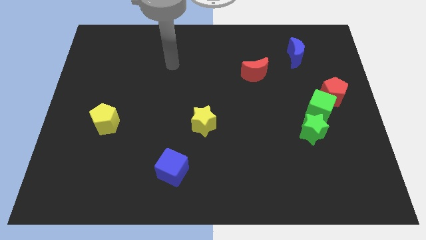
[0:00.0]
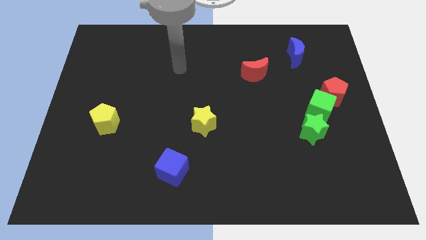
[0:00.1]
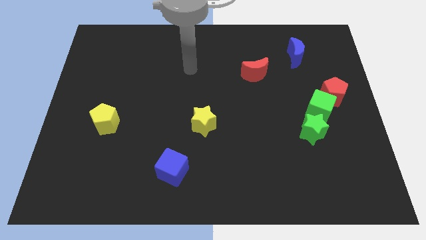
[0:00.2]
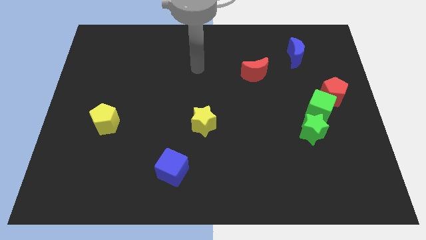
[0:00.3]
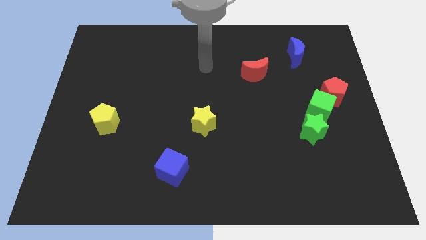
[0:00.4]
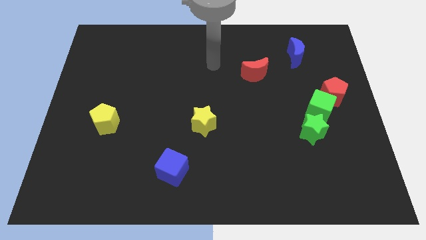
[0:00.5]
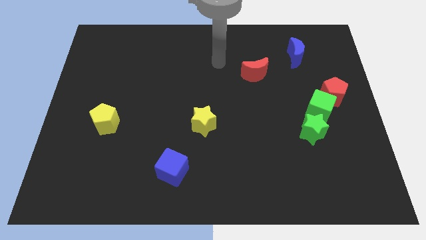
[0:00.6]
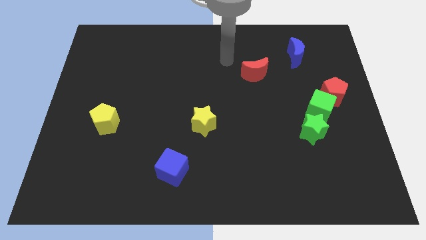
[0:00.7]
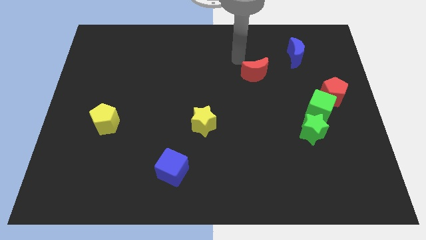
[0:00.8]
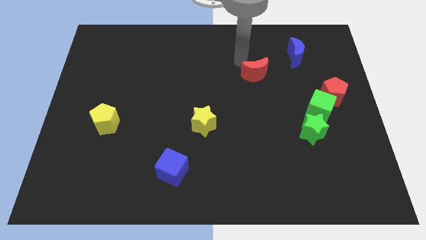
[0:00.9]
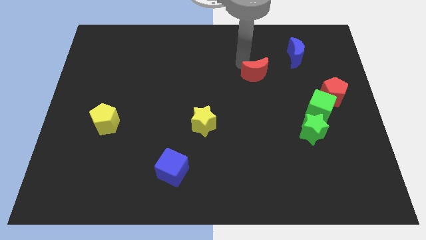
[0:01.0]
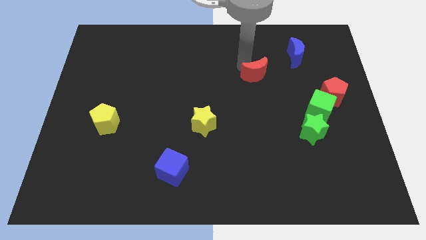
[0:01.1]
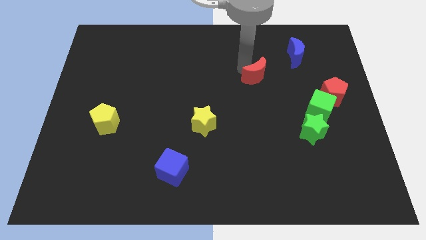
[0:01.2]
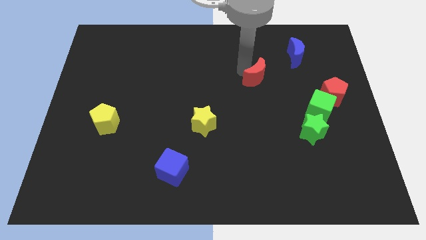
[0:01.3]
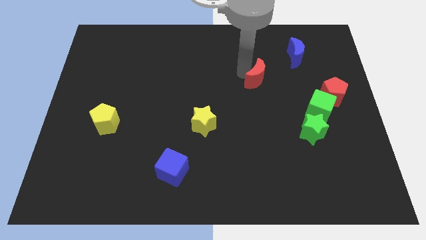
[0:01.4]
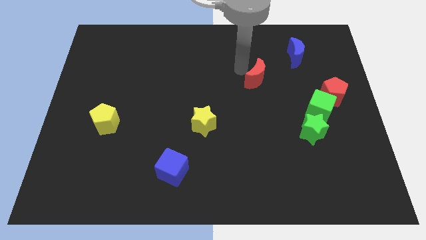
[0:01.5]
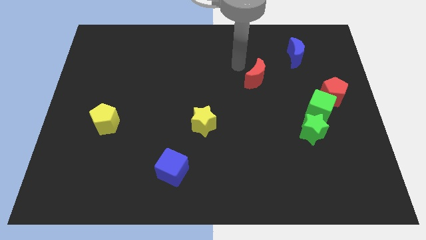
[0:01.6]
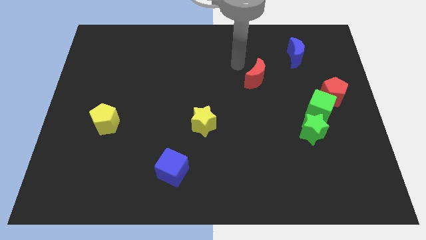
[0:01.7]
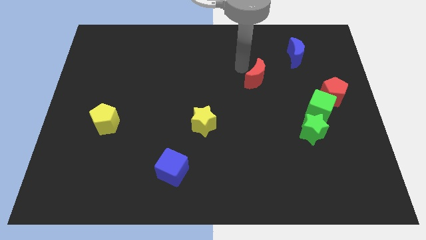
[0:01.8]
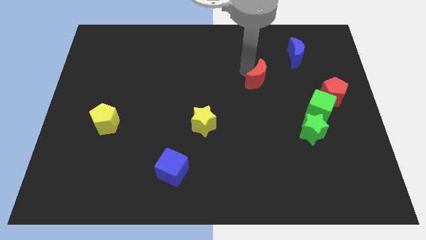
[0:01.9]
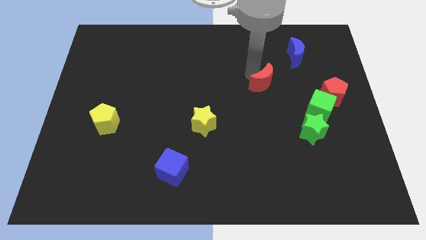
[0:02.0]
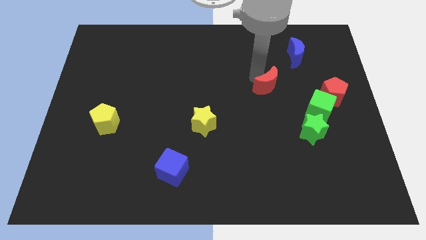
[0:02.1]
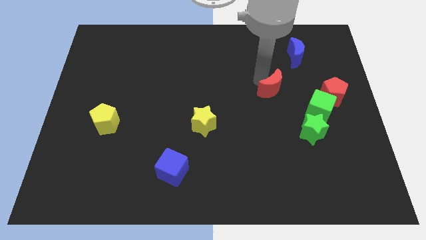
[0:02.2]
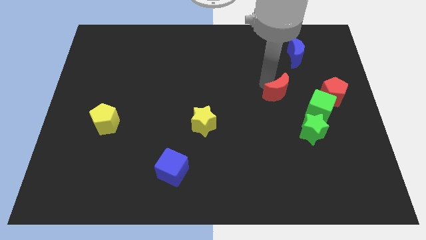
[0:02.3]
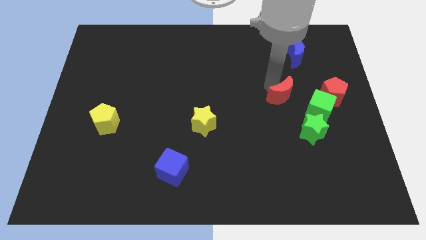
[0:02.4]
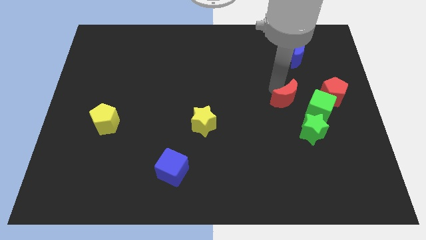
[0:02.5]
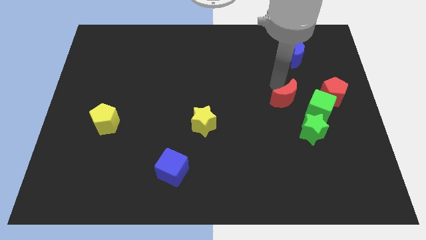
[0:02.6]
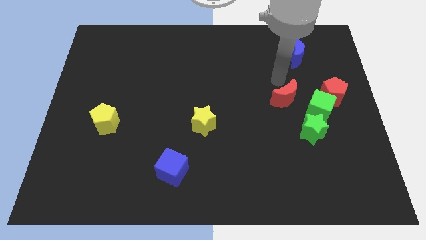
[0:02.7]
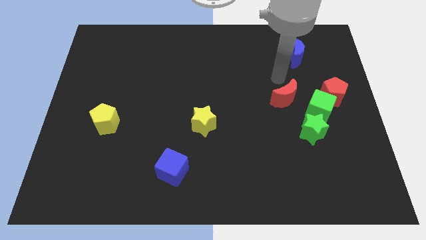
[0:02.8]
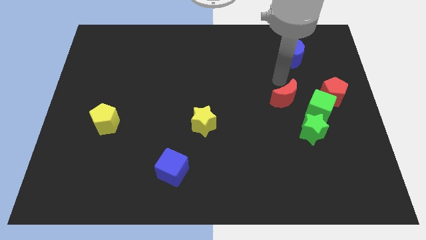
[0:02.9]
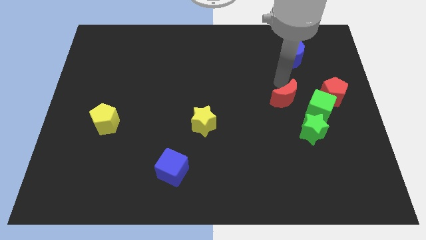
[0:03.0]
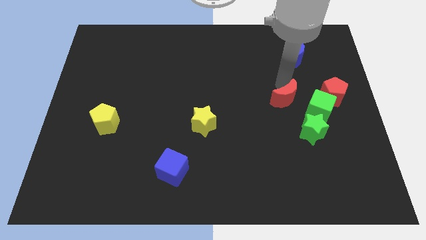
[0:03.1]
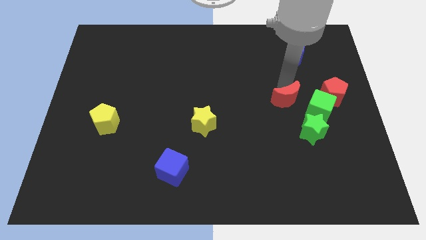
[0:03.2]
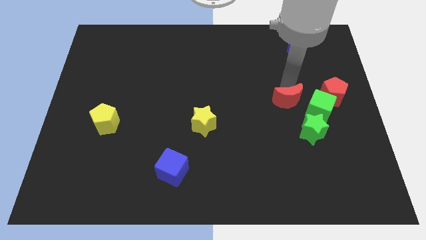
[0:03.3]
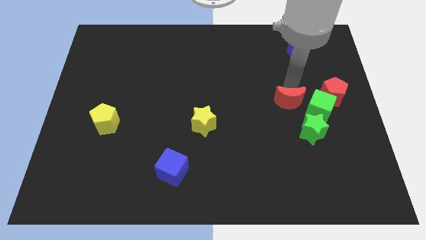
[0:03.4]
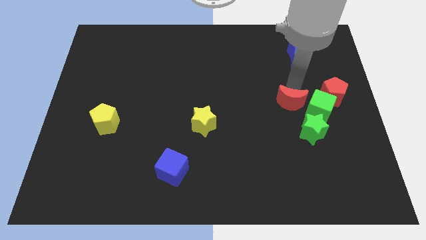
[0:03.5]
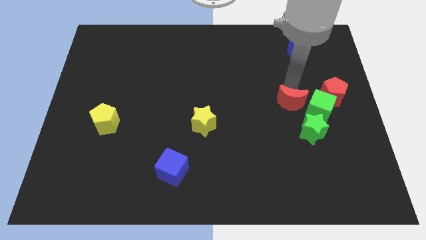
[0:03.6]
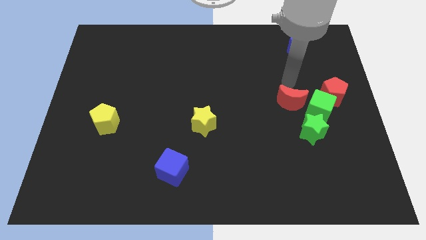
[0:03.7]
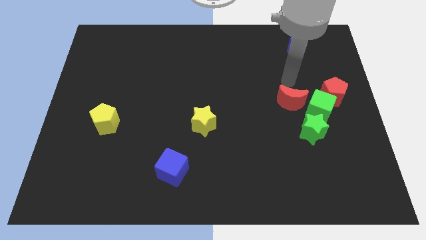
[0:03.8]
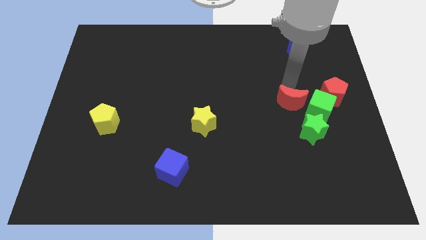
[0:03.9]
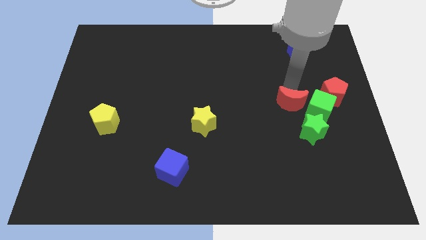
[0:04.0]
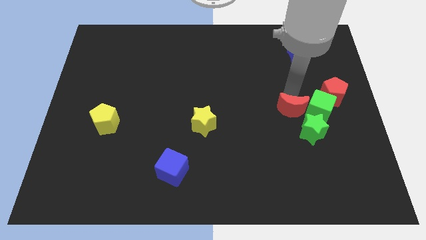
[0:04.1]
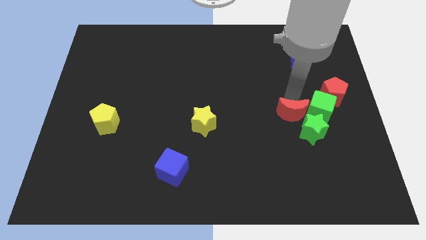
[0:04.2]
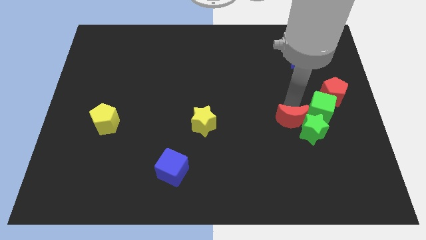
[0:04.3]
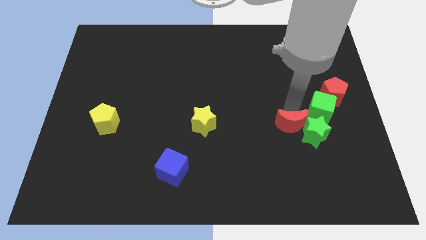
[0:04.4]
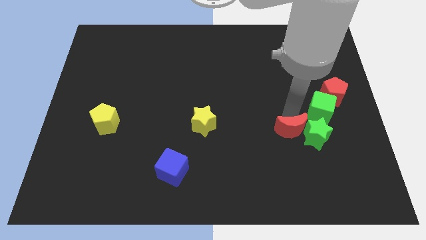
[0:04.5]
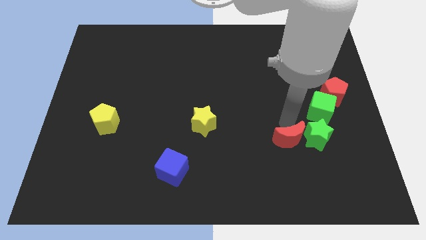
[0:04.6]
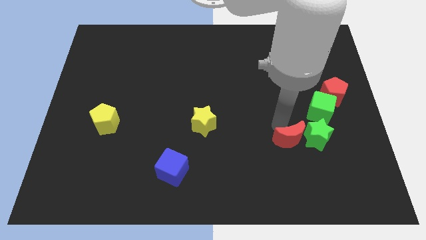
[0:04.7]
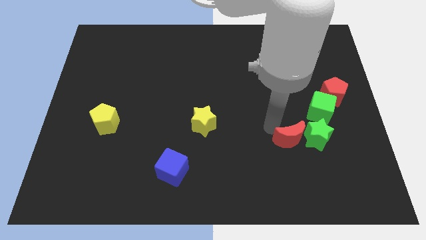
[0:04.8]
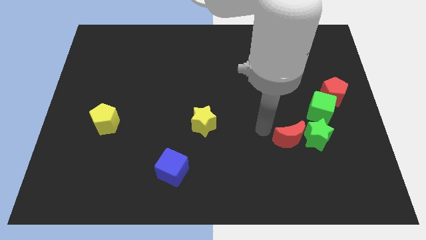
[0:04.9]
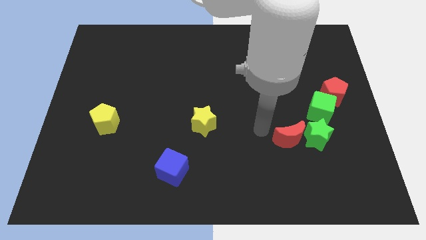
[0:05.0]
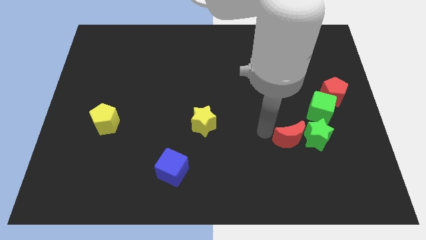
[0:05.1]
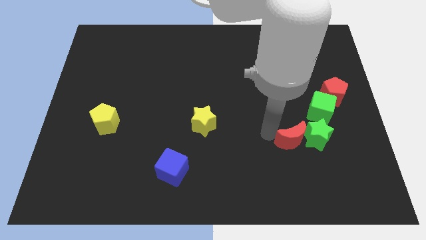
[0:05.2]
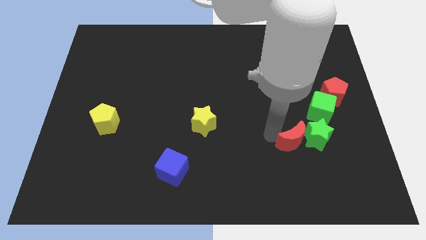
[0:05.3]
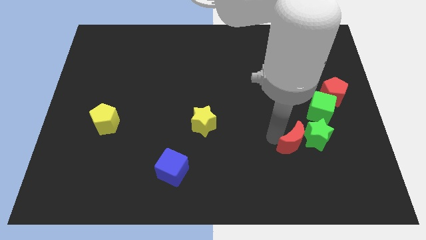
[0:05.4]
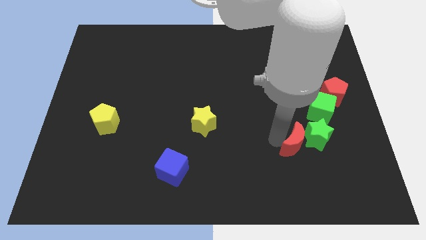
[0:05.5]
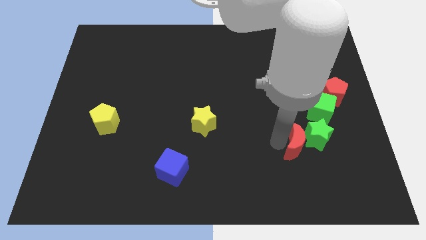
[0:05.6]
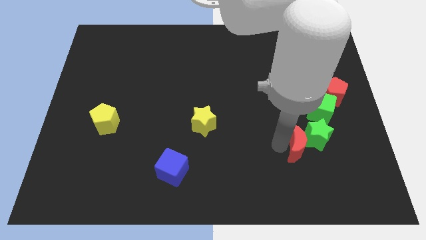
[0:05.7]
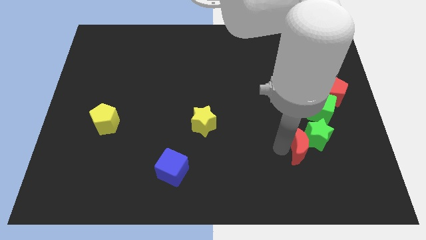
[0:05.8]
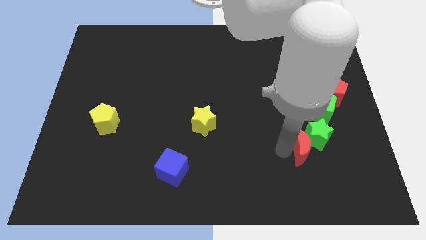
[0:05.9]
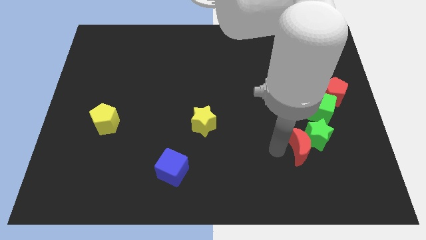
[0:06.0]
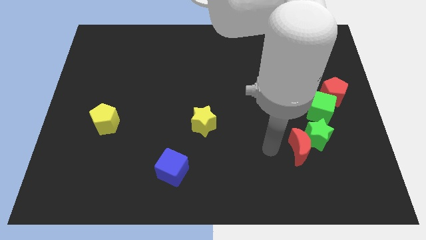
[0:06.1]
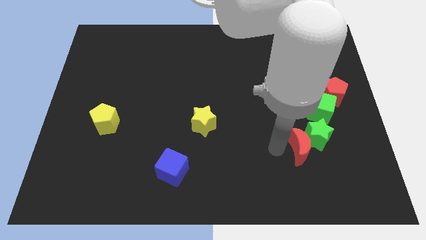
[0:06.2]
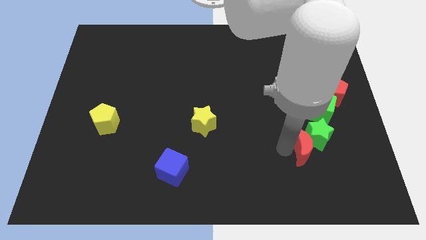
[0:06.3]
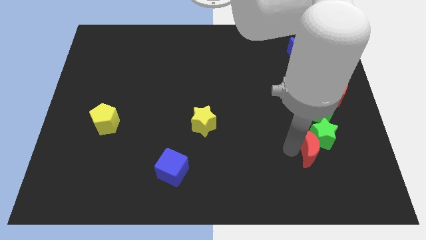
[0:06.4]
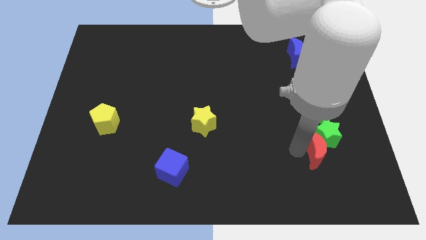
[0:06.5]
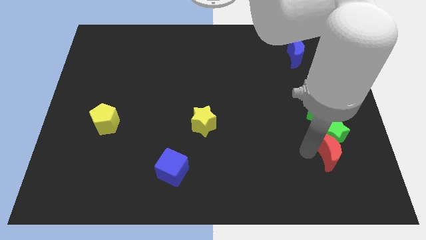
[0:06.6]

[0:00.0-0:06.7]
slide the red moon to the bottom right side of the green star

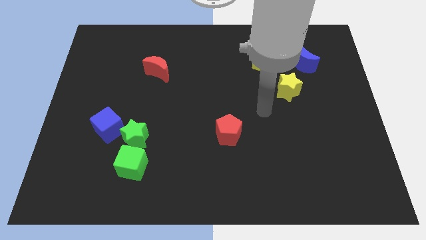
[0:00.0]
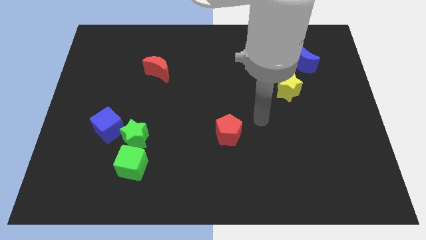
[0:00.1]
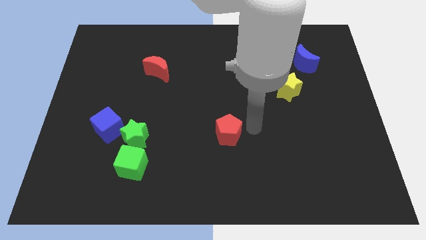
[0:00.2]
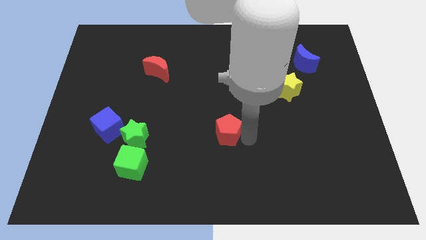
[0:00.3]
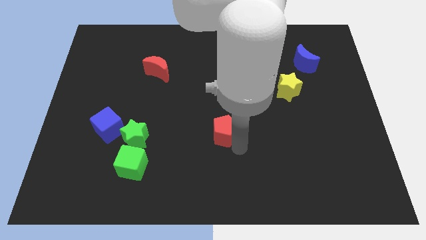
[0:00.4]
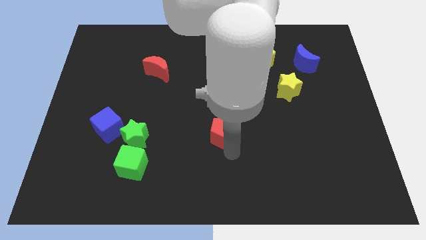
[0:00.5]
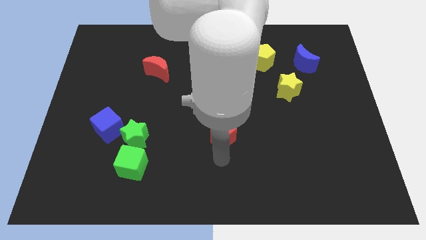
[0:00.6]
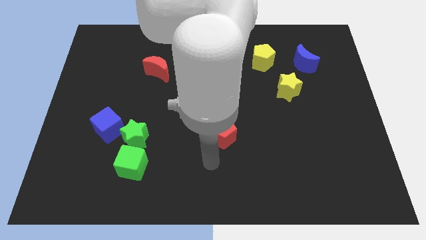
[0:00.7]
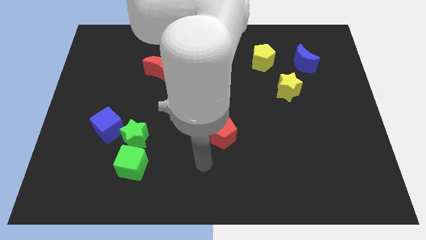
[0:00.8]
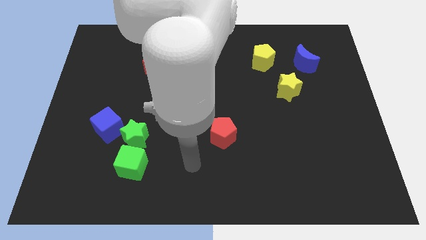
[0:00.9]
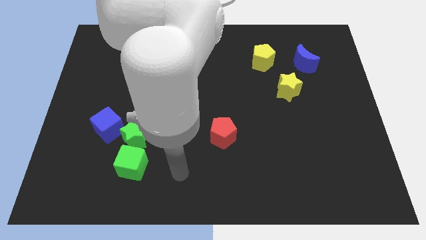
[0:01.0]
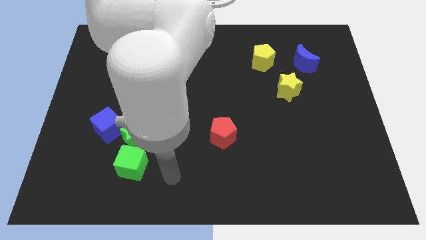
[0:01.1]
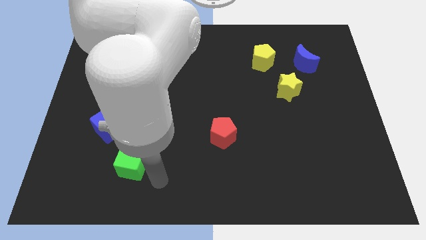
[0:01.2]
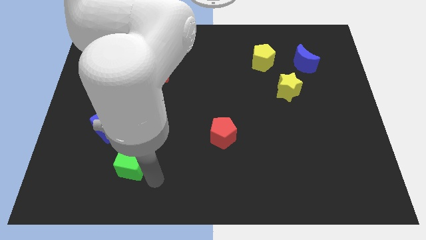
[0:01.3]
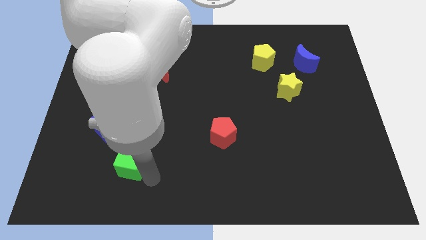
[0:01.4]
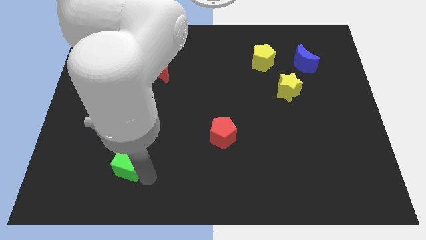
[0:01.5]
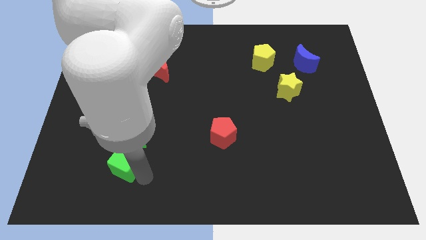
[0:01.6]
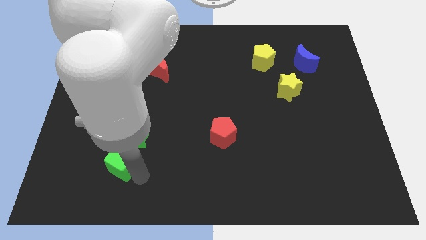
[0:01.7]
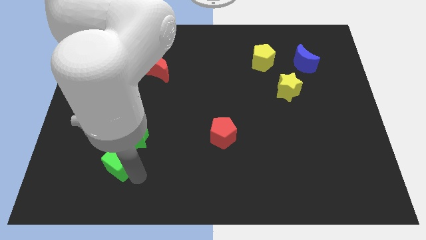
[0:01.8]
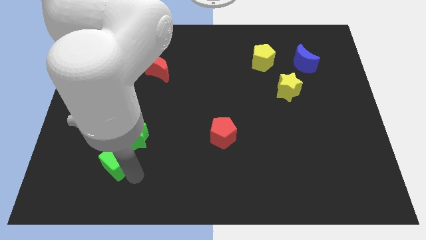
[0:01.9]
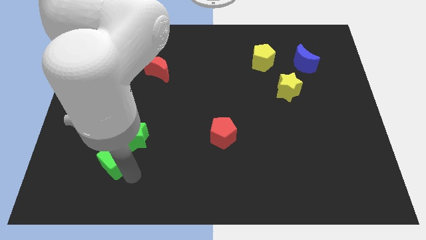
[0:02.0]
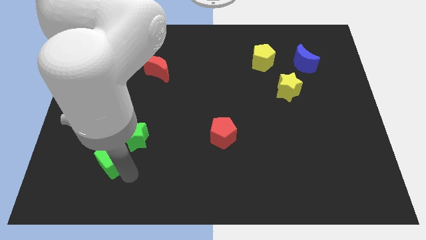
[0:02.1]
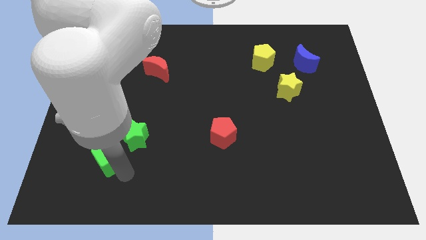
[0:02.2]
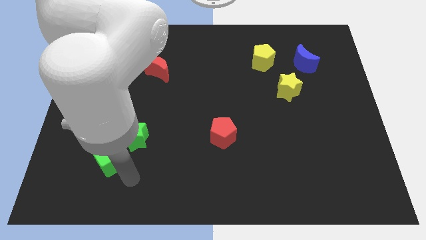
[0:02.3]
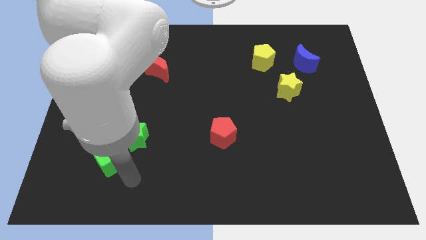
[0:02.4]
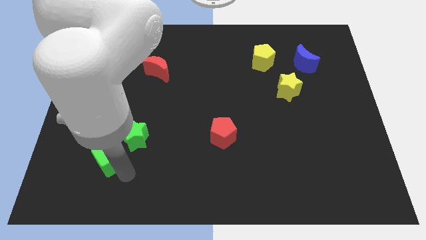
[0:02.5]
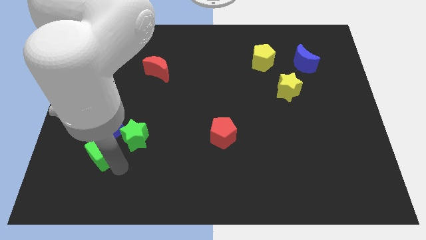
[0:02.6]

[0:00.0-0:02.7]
put the green cube just left of the green star
